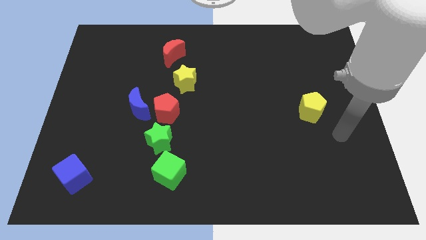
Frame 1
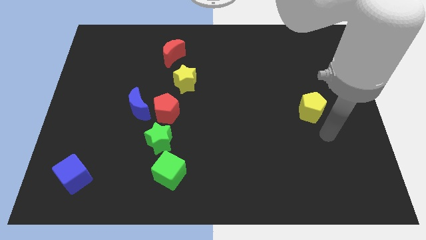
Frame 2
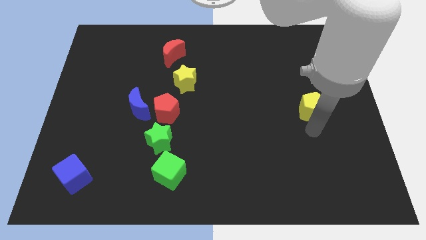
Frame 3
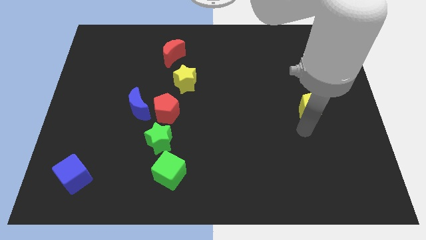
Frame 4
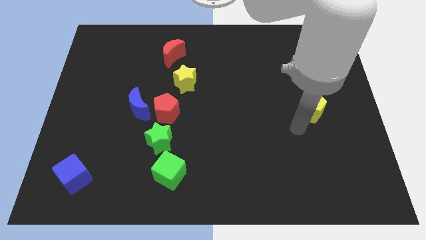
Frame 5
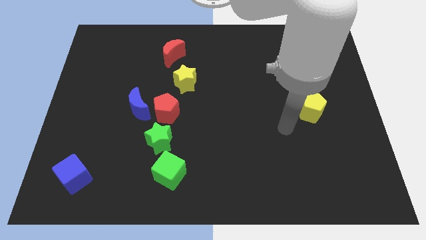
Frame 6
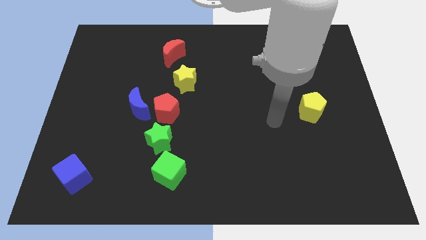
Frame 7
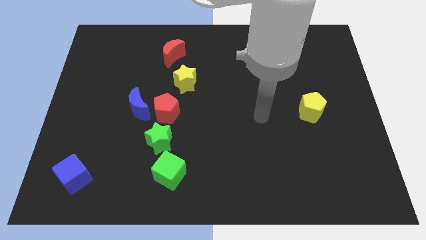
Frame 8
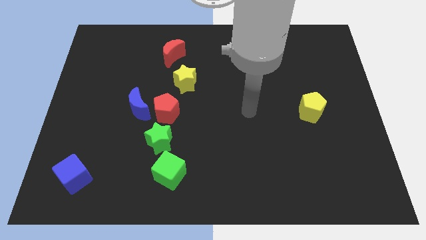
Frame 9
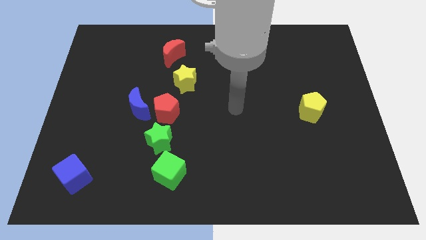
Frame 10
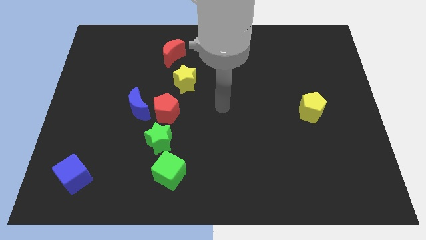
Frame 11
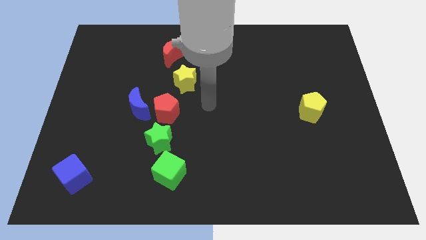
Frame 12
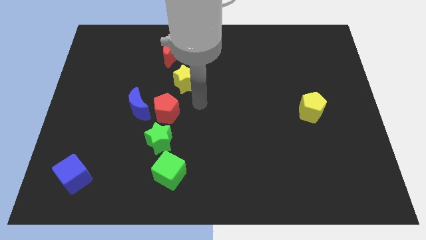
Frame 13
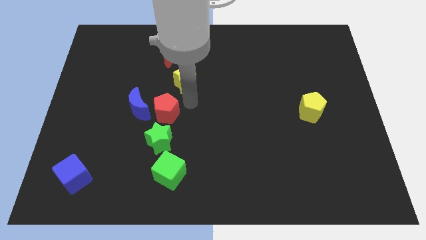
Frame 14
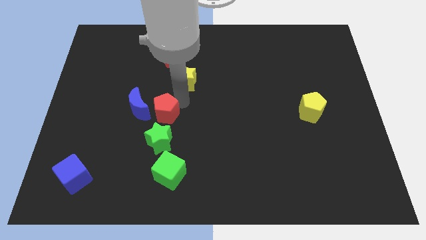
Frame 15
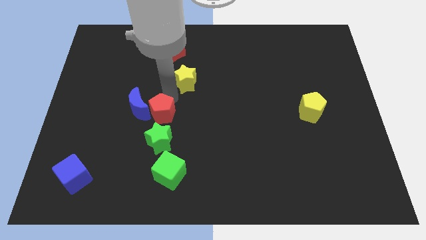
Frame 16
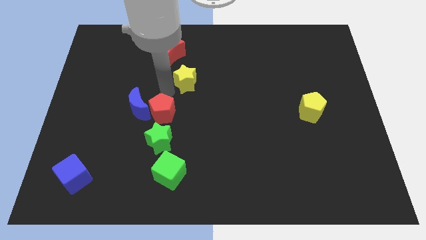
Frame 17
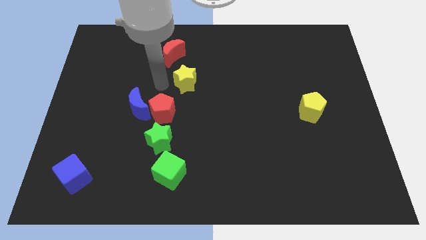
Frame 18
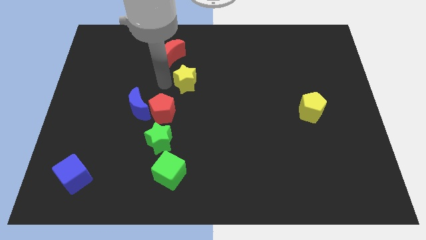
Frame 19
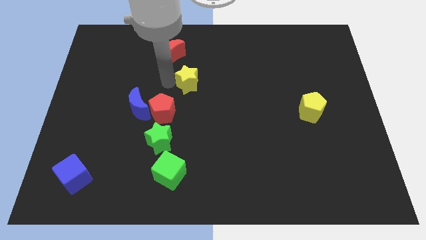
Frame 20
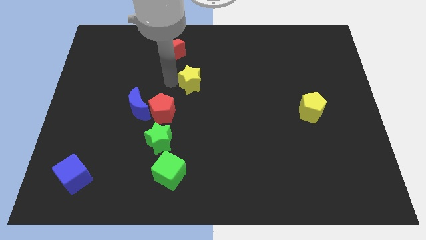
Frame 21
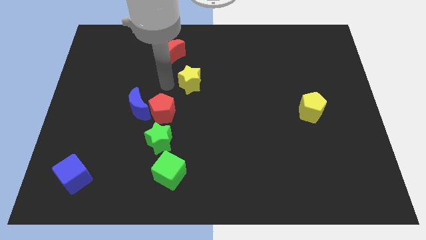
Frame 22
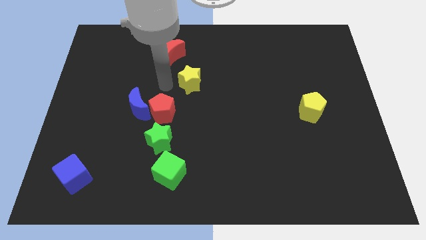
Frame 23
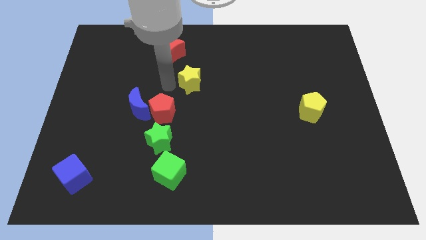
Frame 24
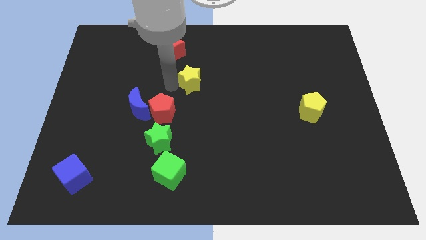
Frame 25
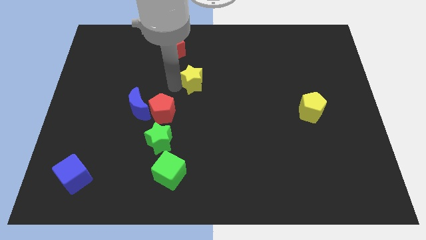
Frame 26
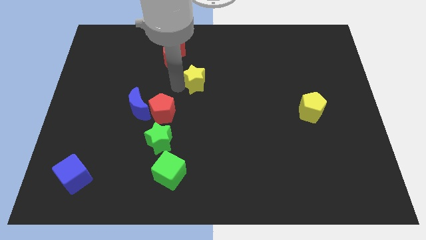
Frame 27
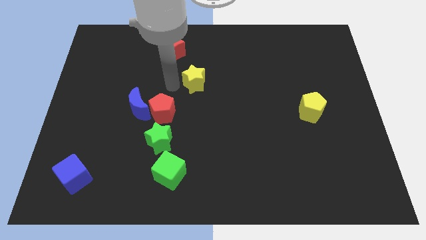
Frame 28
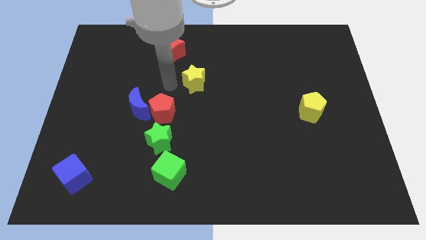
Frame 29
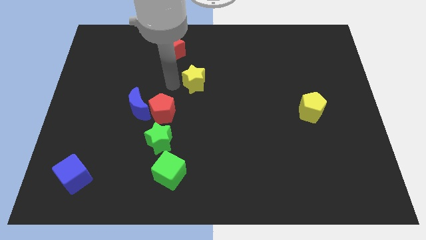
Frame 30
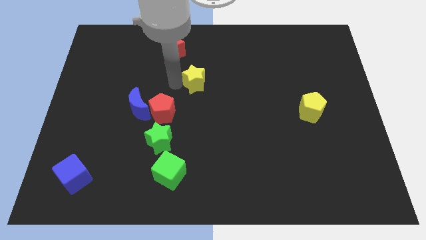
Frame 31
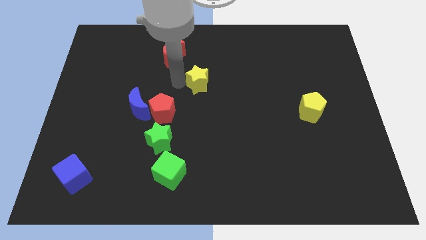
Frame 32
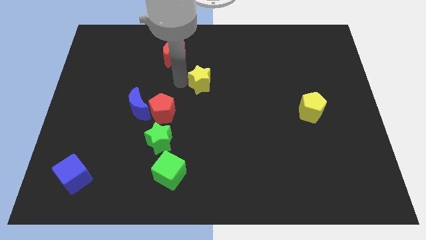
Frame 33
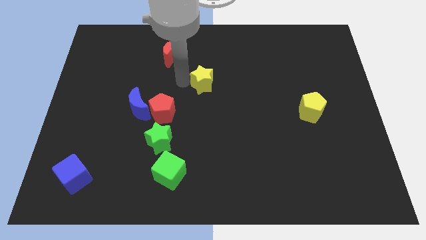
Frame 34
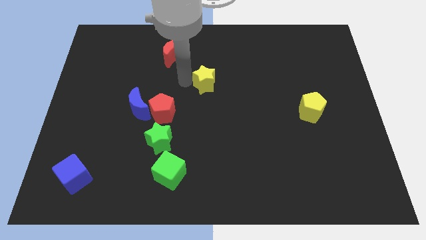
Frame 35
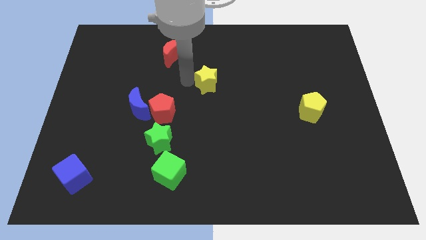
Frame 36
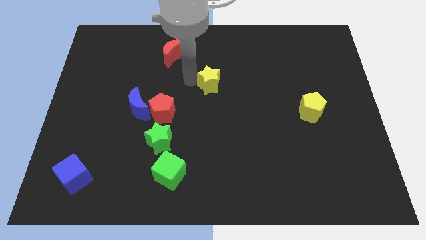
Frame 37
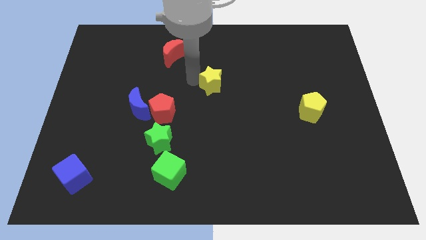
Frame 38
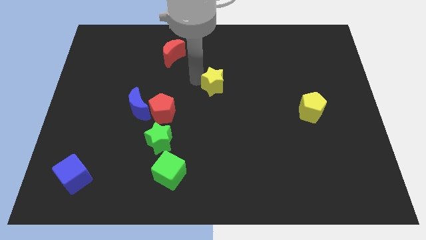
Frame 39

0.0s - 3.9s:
push the yellow star a little bit to the right

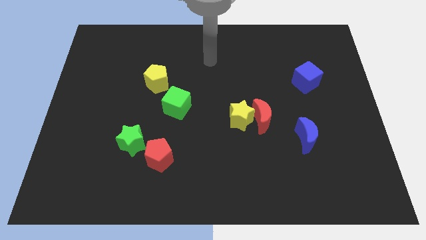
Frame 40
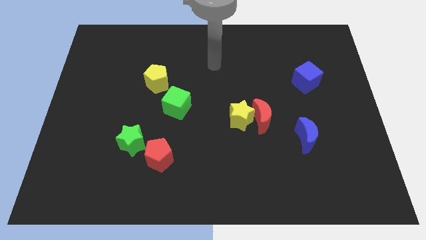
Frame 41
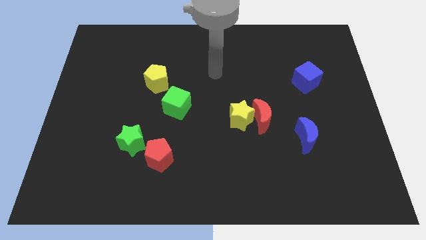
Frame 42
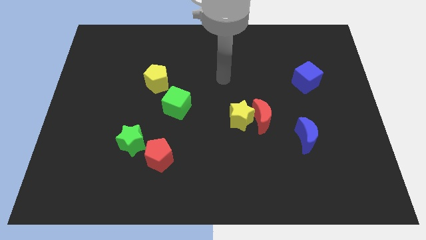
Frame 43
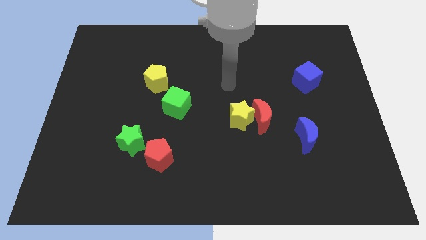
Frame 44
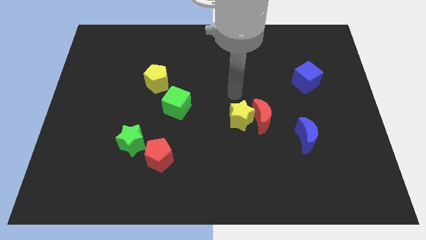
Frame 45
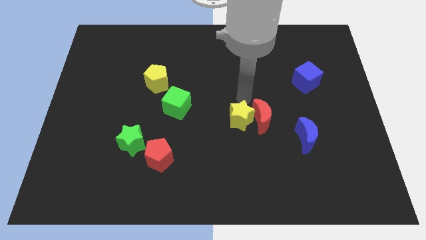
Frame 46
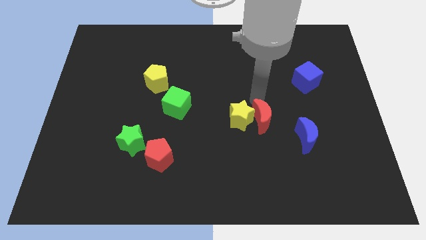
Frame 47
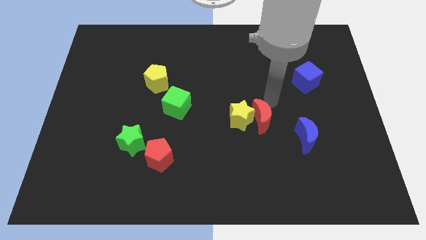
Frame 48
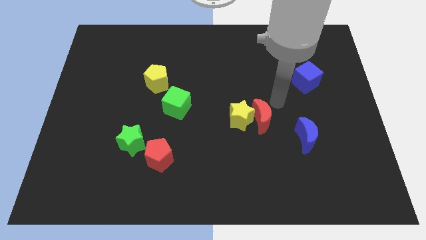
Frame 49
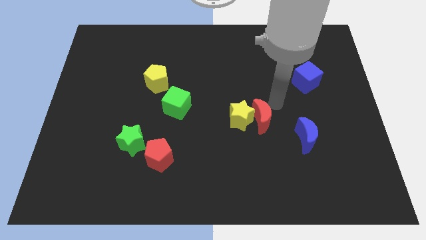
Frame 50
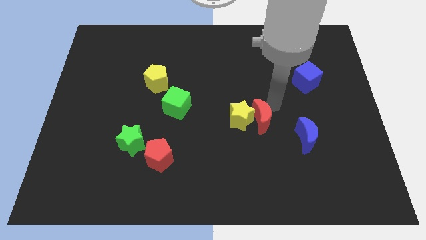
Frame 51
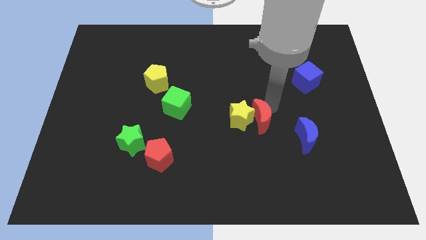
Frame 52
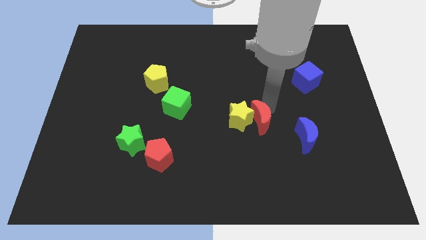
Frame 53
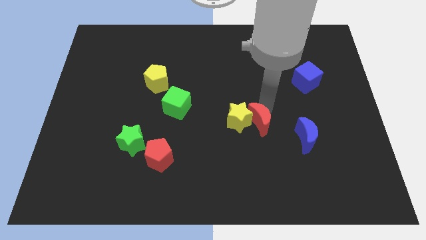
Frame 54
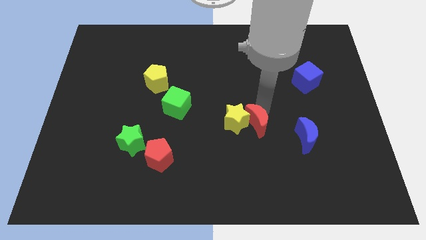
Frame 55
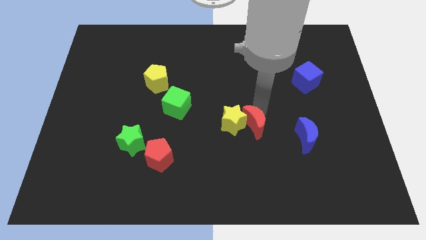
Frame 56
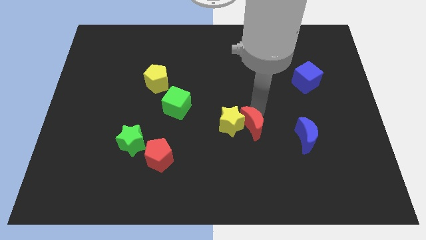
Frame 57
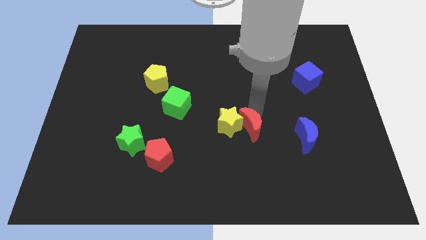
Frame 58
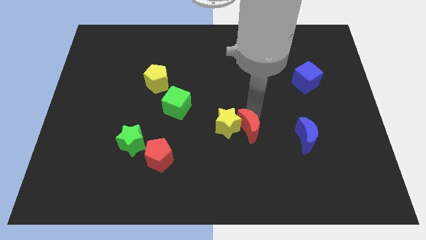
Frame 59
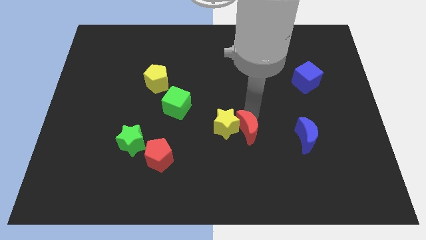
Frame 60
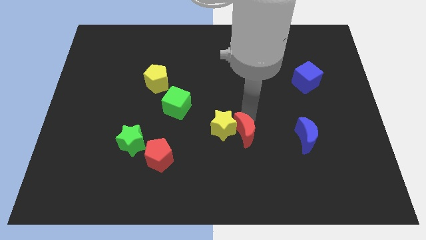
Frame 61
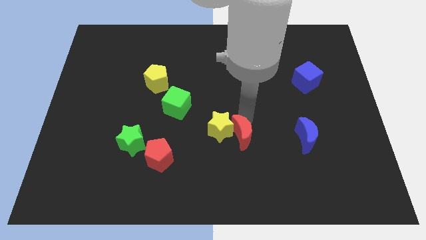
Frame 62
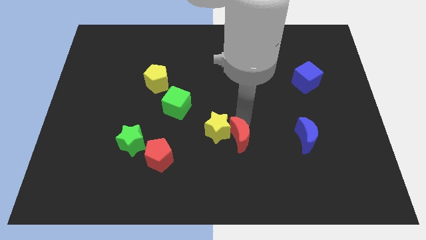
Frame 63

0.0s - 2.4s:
slightly push the red moon downwards and to the left

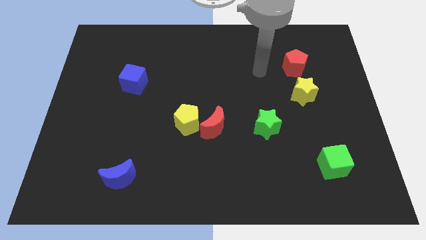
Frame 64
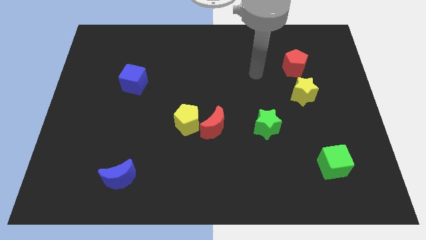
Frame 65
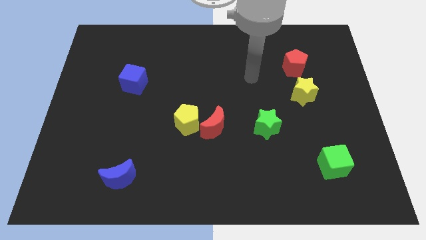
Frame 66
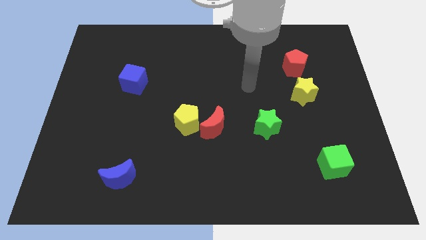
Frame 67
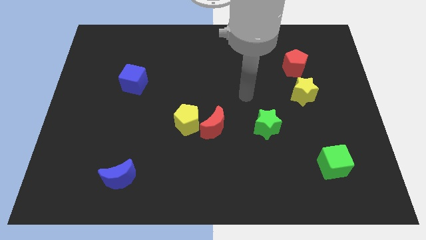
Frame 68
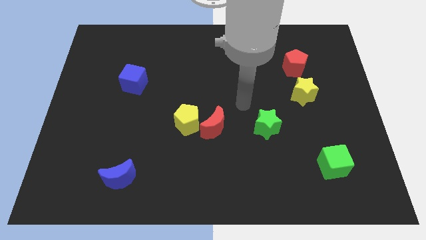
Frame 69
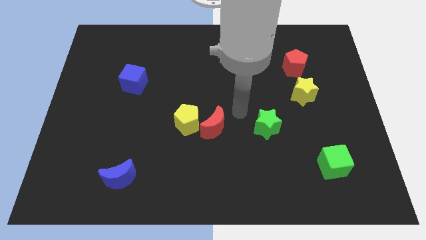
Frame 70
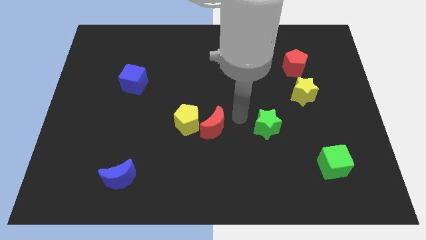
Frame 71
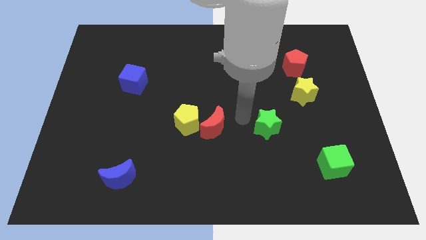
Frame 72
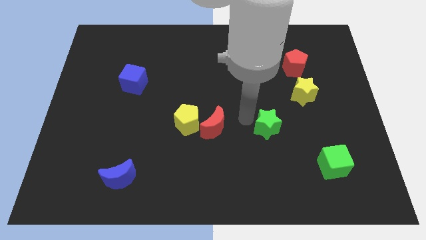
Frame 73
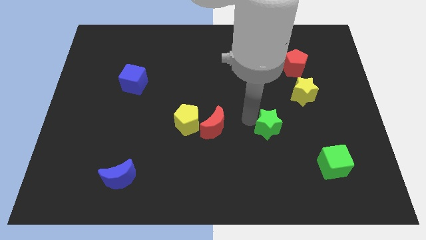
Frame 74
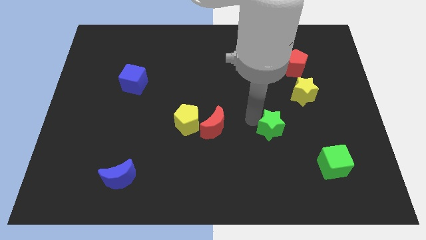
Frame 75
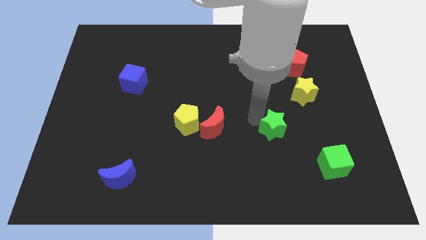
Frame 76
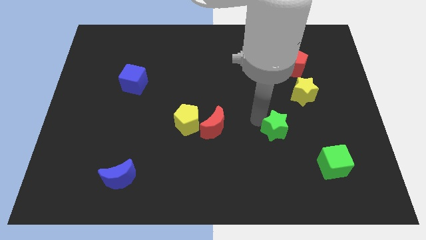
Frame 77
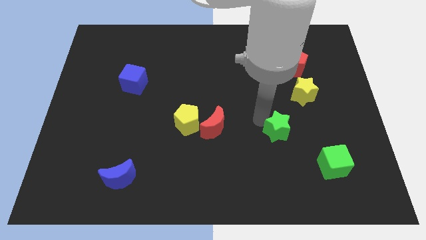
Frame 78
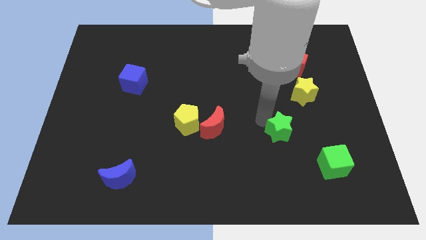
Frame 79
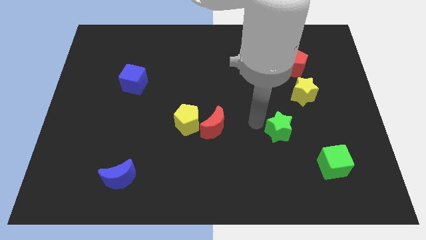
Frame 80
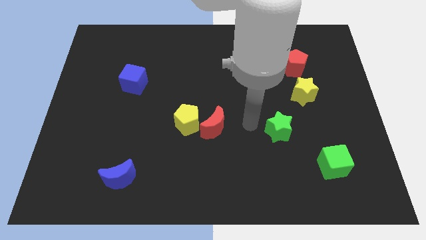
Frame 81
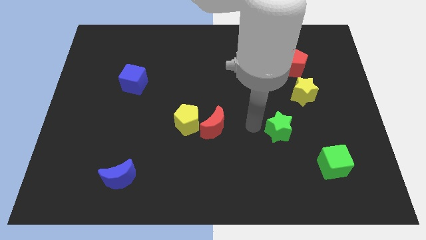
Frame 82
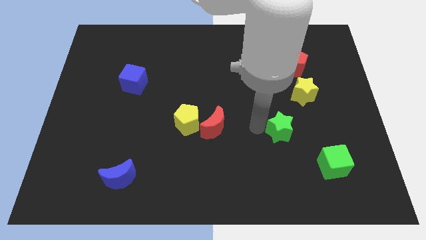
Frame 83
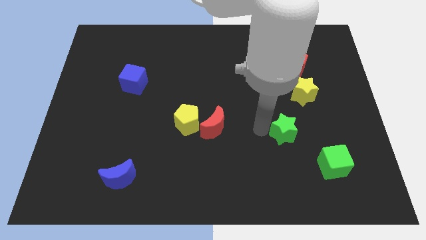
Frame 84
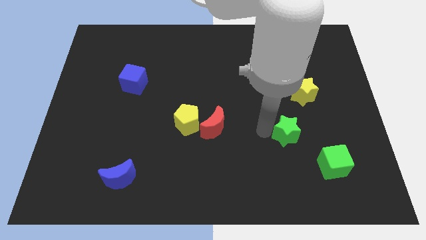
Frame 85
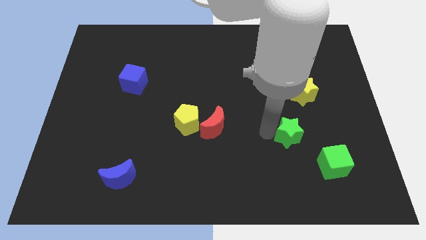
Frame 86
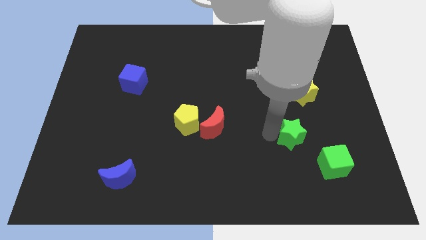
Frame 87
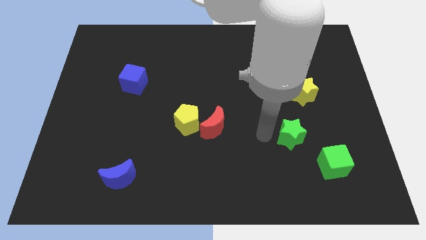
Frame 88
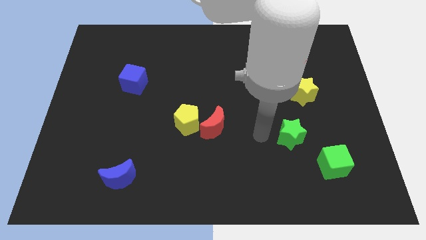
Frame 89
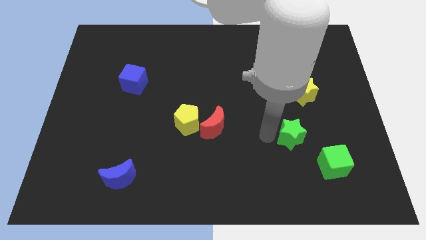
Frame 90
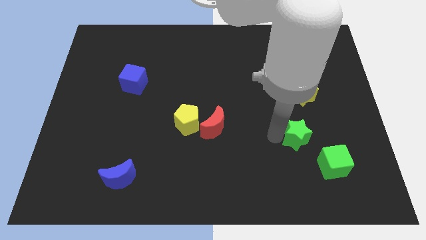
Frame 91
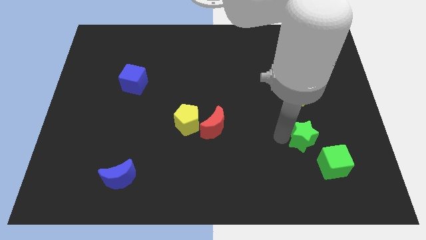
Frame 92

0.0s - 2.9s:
slightly push the green star downwards and right
